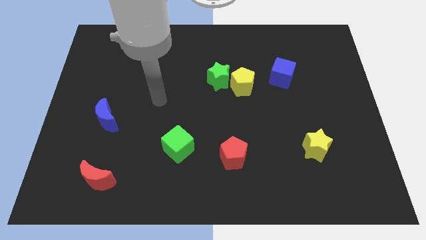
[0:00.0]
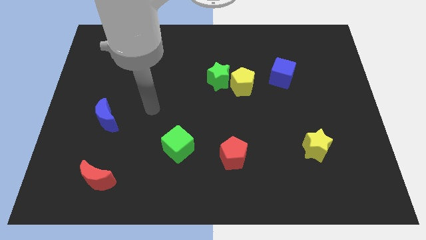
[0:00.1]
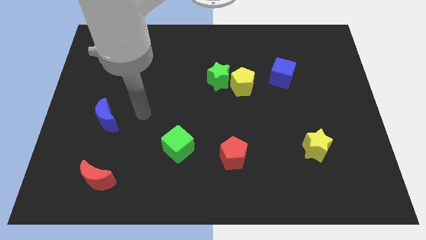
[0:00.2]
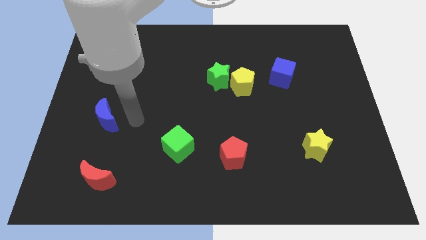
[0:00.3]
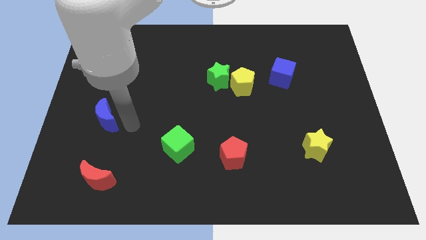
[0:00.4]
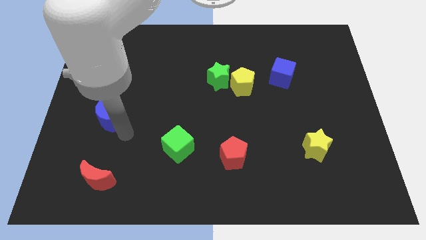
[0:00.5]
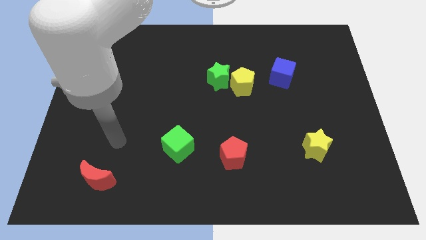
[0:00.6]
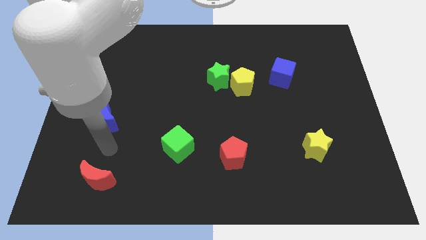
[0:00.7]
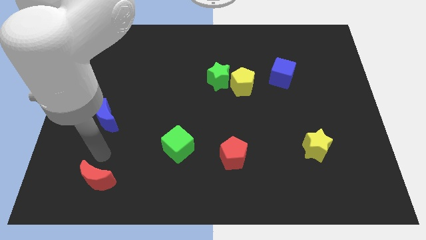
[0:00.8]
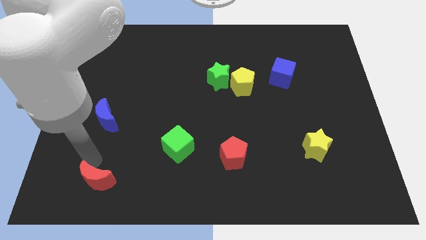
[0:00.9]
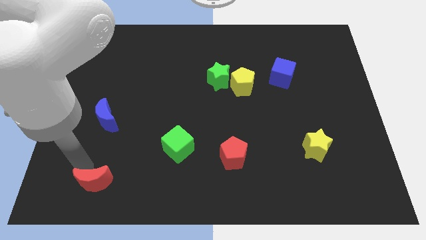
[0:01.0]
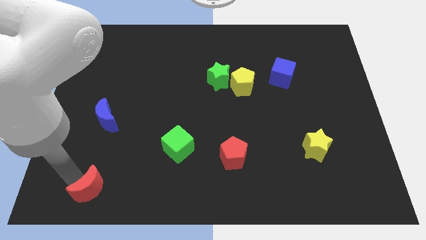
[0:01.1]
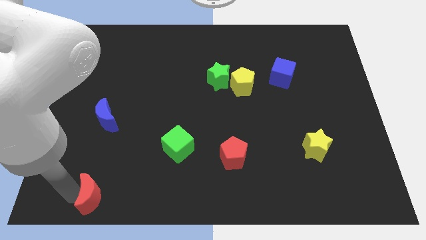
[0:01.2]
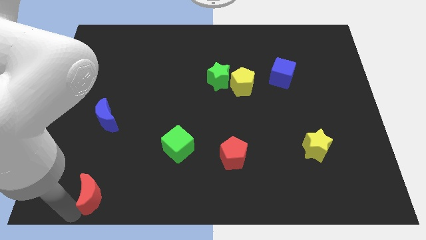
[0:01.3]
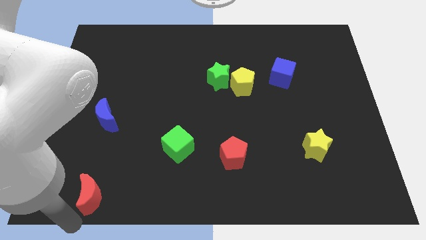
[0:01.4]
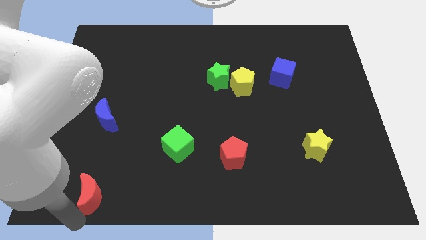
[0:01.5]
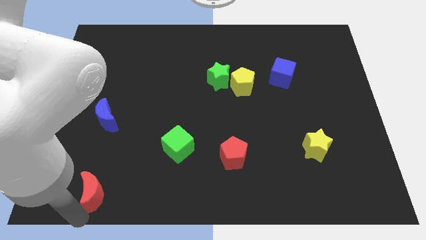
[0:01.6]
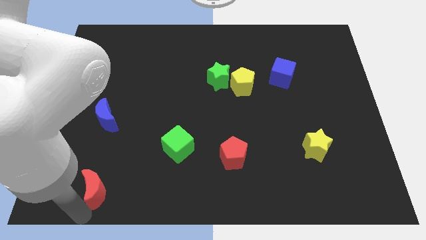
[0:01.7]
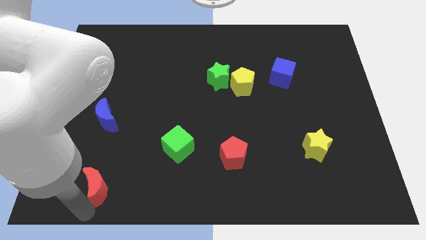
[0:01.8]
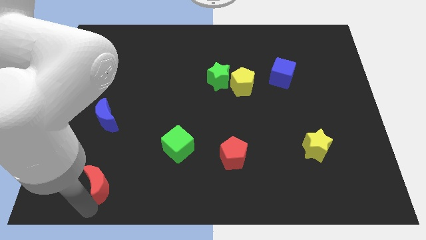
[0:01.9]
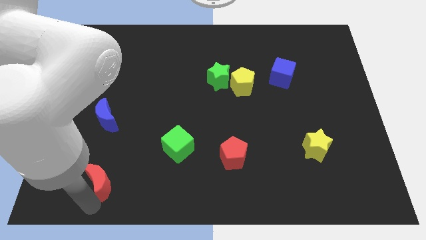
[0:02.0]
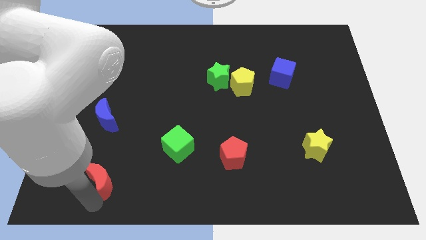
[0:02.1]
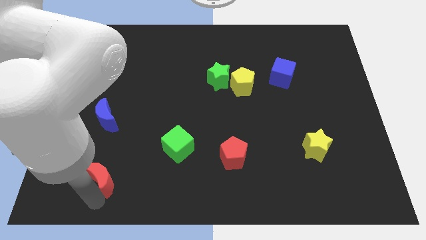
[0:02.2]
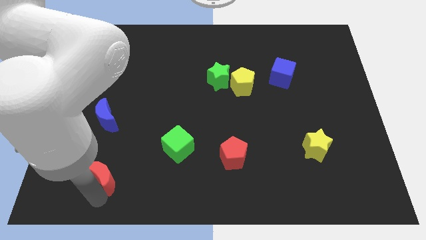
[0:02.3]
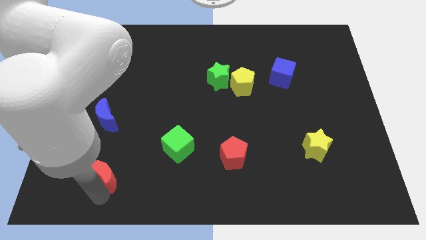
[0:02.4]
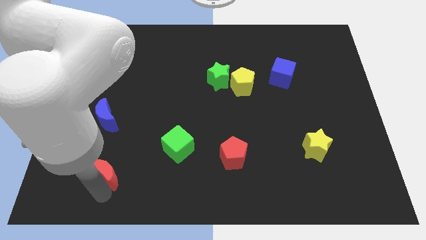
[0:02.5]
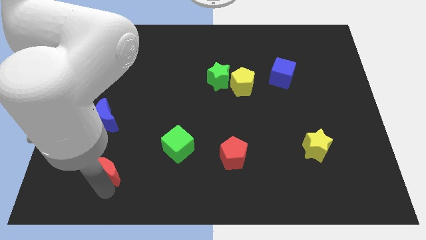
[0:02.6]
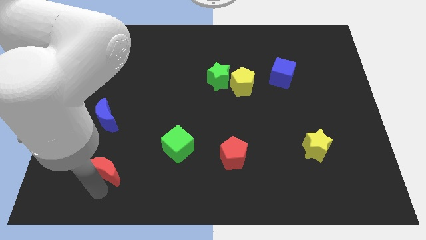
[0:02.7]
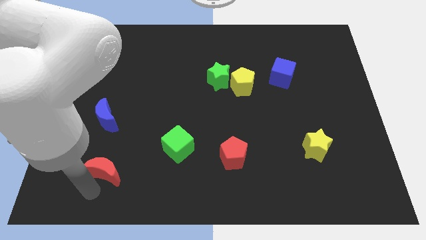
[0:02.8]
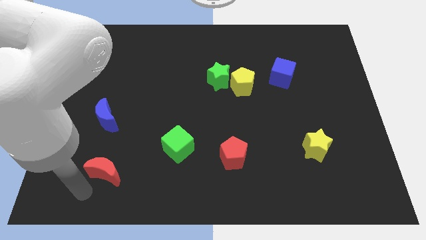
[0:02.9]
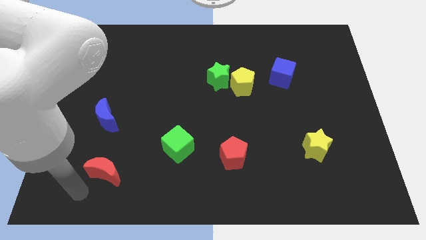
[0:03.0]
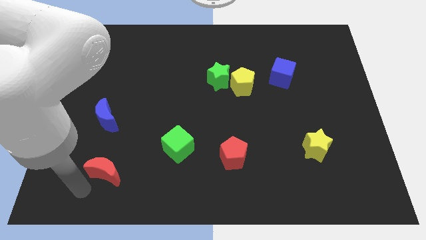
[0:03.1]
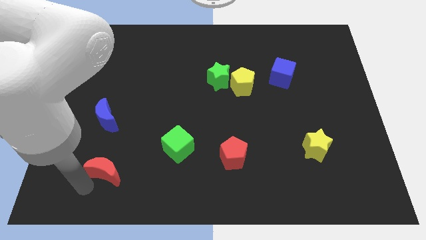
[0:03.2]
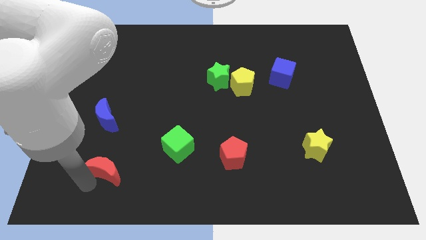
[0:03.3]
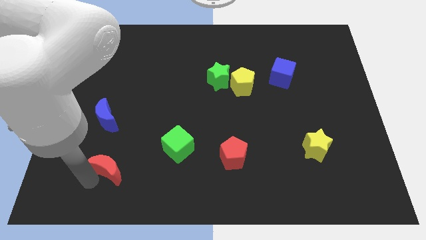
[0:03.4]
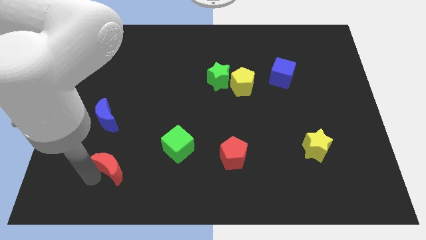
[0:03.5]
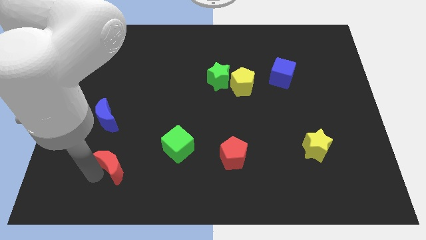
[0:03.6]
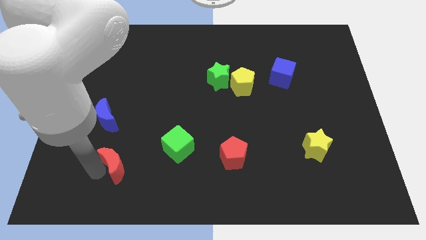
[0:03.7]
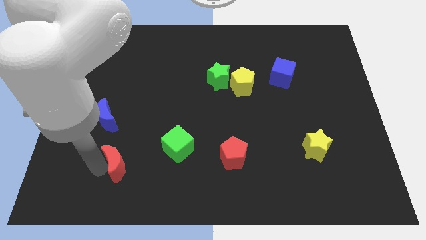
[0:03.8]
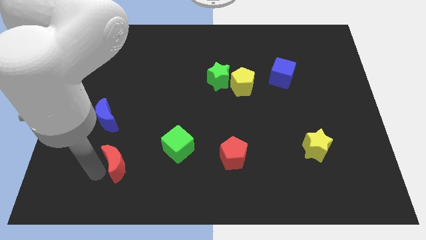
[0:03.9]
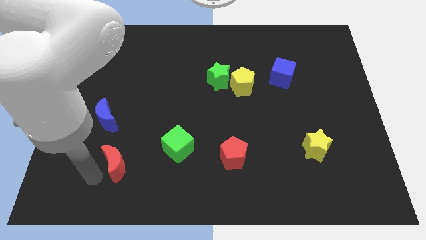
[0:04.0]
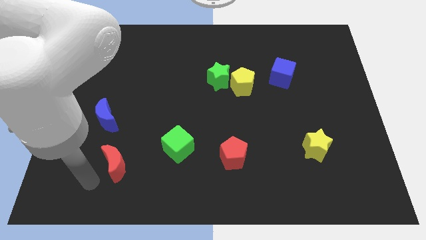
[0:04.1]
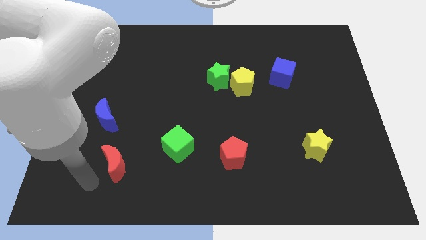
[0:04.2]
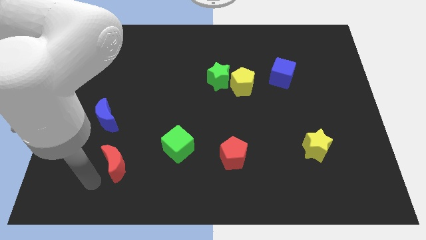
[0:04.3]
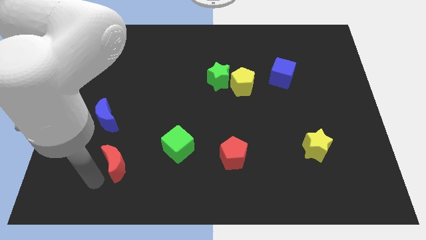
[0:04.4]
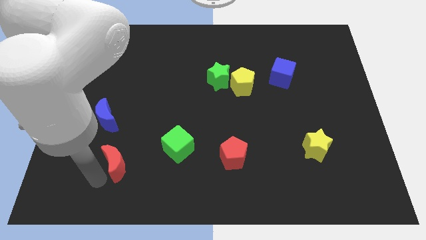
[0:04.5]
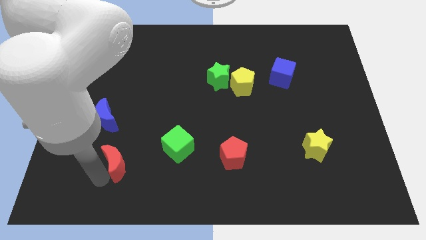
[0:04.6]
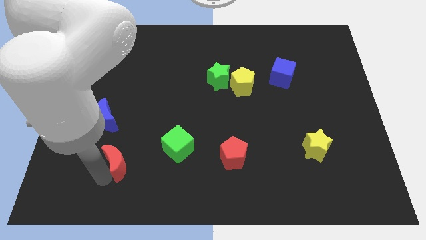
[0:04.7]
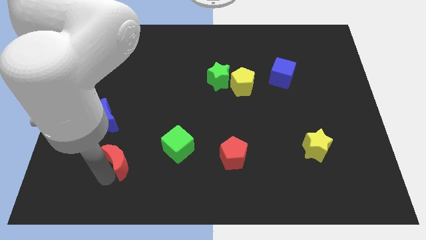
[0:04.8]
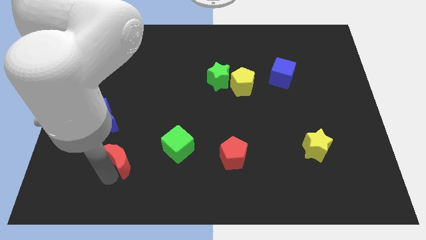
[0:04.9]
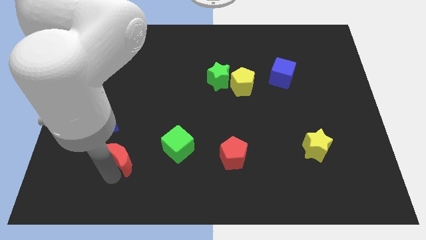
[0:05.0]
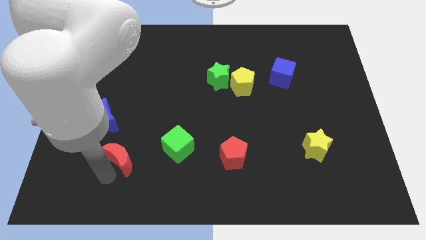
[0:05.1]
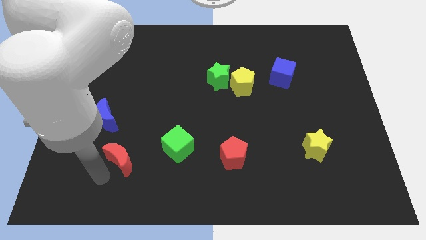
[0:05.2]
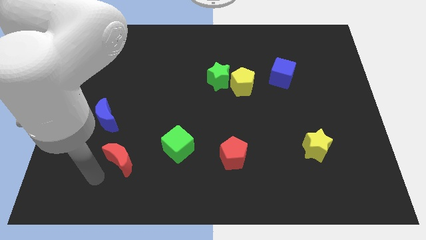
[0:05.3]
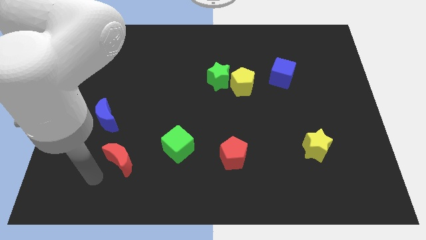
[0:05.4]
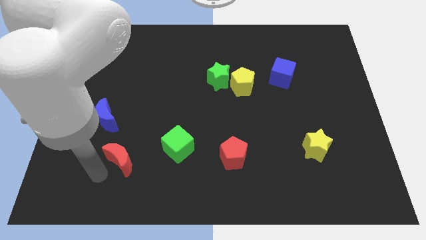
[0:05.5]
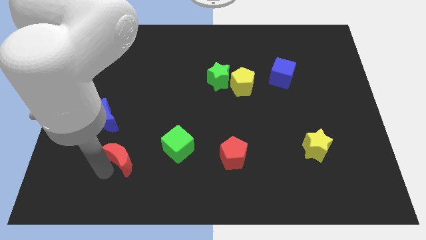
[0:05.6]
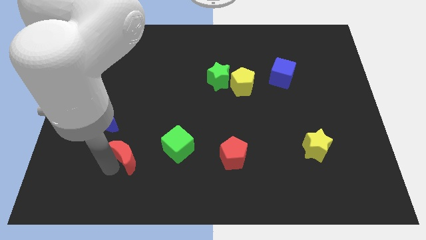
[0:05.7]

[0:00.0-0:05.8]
slightly push the red moon diagonally upwards and to the right

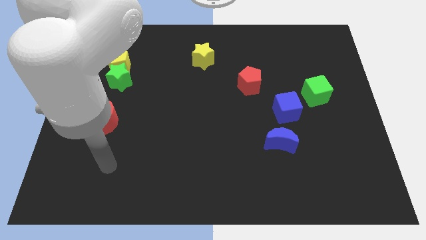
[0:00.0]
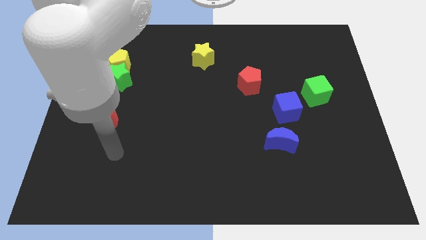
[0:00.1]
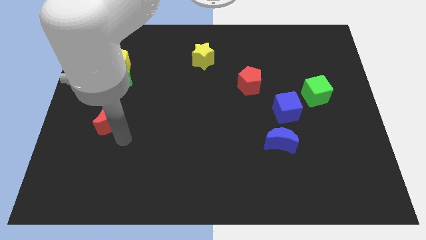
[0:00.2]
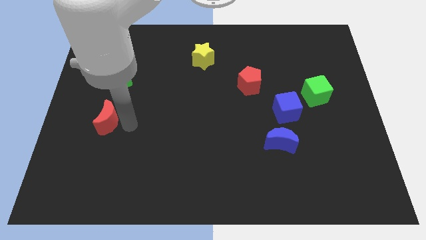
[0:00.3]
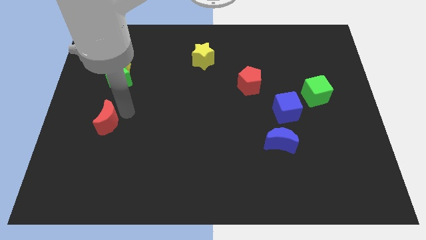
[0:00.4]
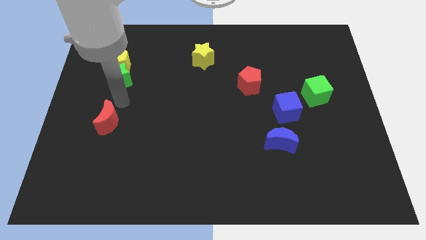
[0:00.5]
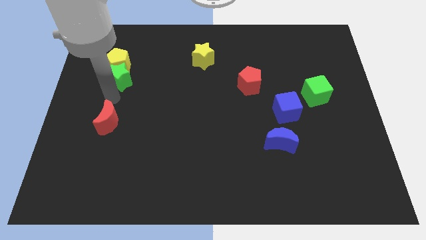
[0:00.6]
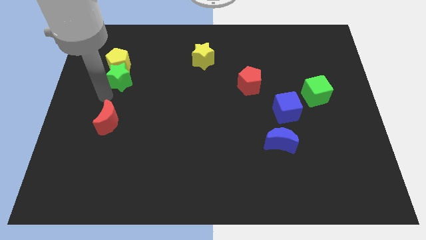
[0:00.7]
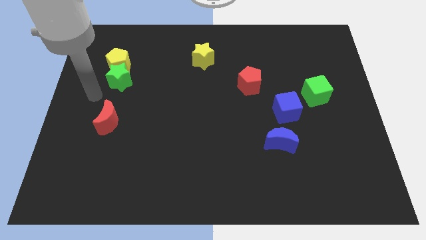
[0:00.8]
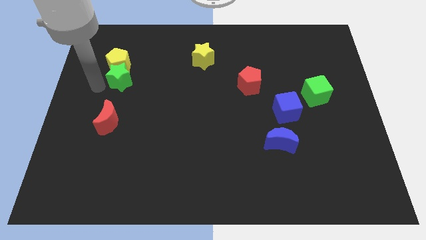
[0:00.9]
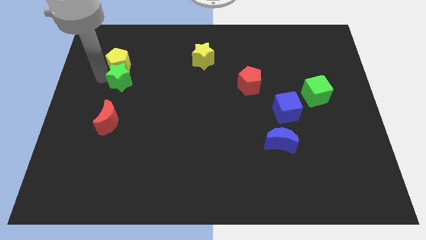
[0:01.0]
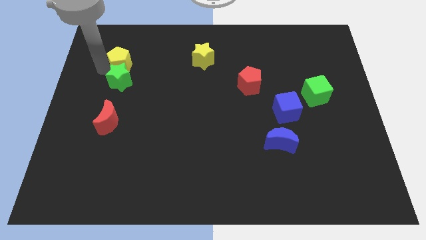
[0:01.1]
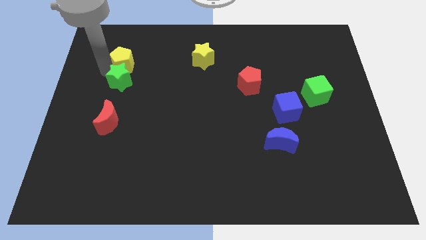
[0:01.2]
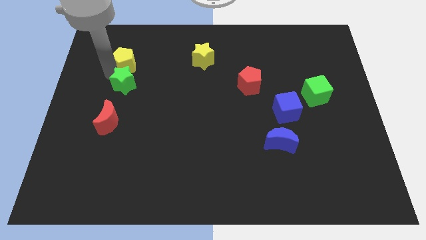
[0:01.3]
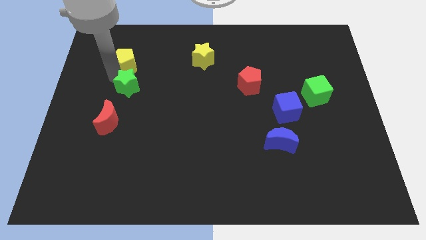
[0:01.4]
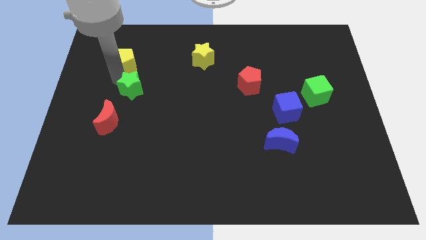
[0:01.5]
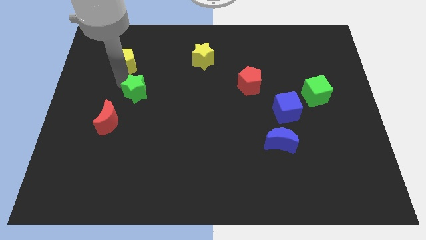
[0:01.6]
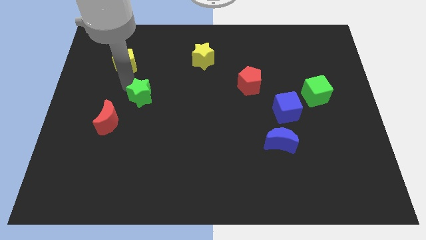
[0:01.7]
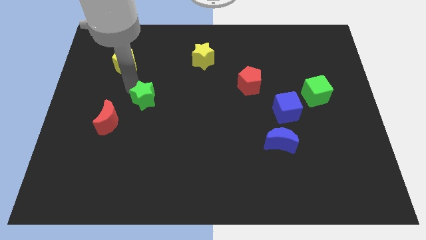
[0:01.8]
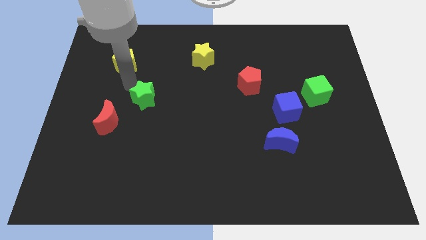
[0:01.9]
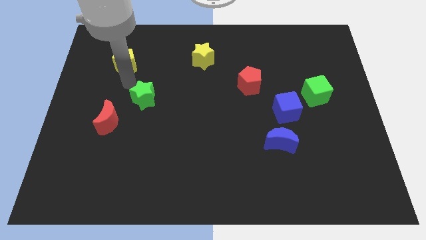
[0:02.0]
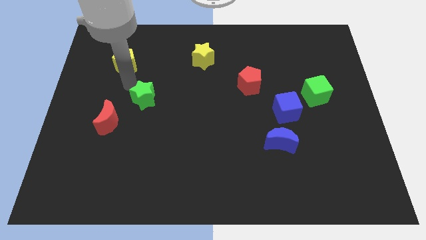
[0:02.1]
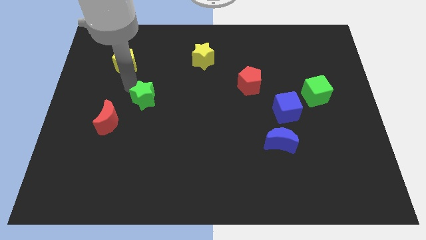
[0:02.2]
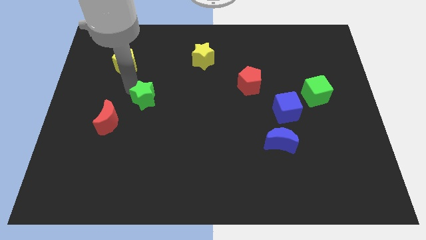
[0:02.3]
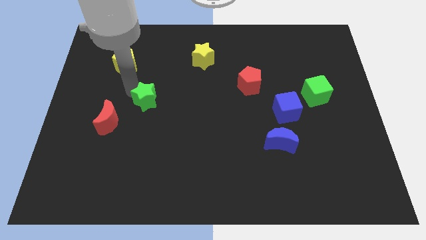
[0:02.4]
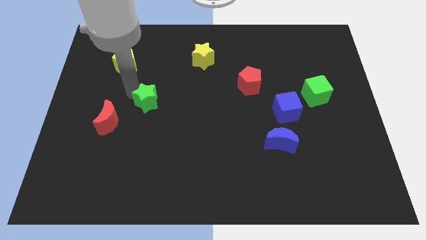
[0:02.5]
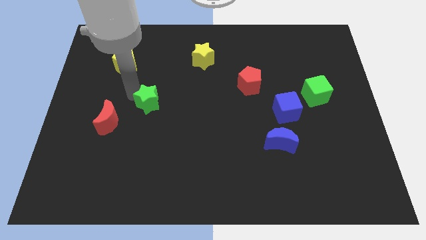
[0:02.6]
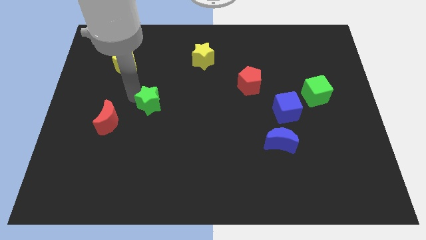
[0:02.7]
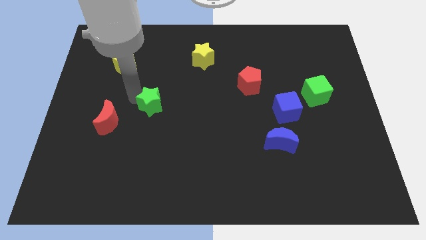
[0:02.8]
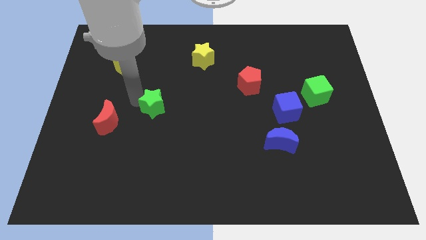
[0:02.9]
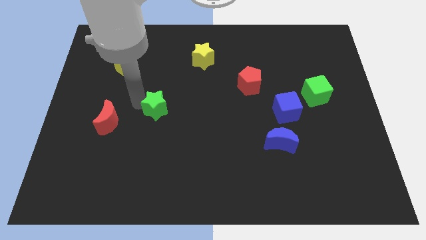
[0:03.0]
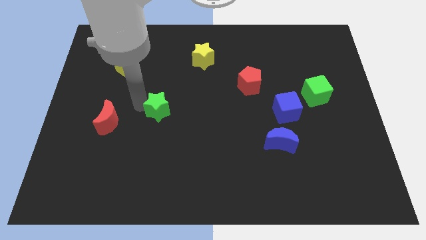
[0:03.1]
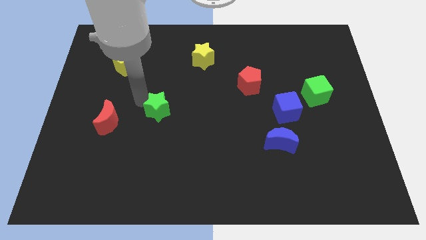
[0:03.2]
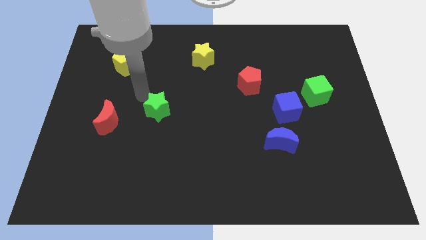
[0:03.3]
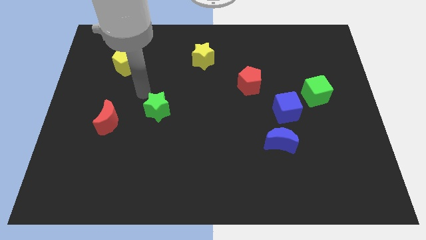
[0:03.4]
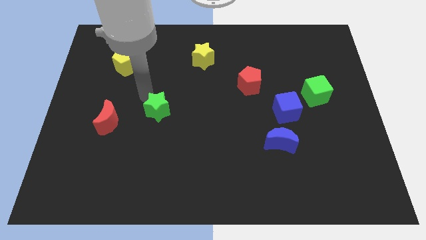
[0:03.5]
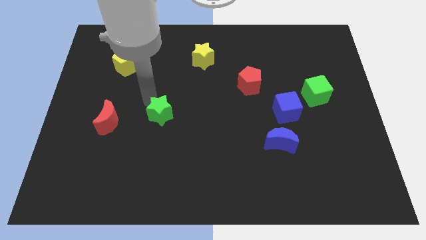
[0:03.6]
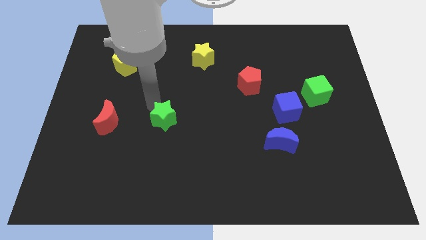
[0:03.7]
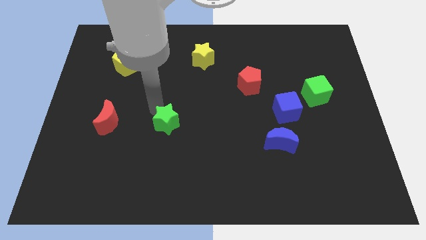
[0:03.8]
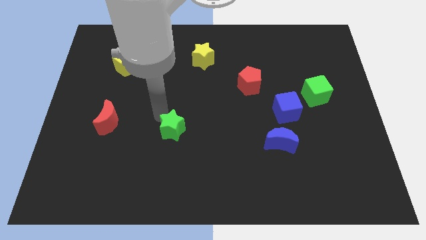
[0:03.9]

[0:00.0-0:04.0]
move the green star down and to the right diagonally
